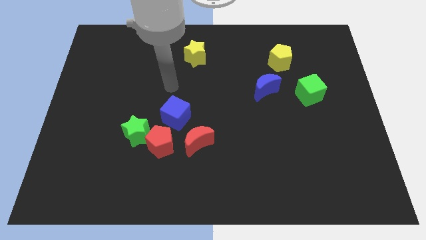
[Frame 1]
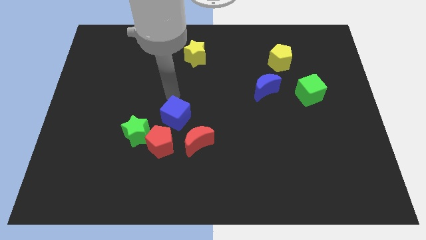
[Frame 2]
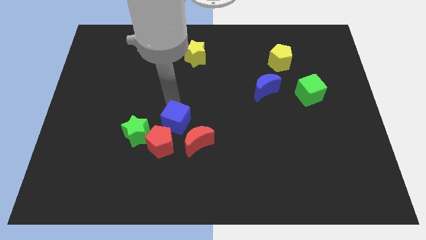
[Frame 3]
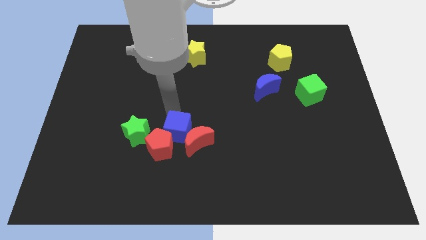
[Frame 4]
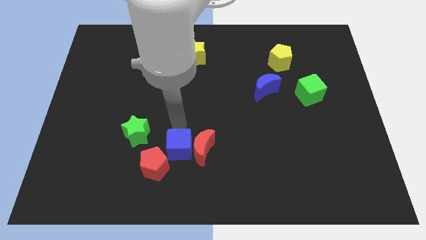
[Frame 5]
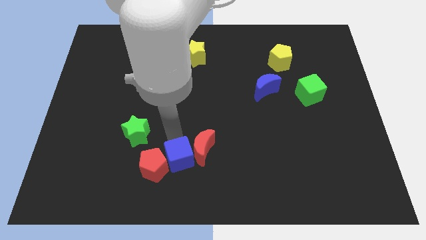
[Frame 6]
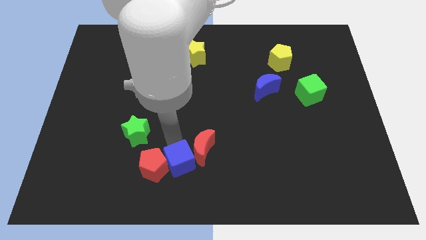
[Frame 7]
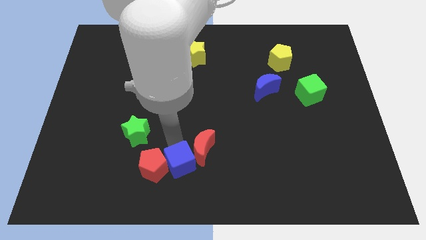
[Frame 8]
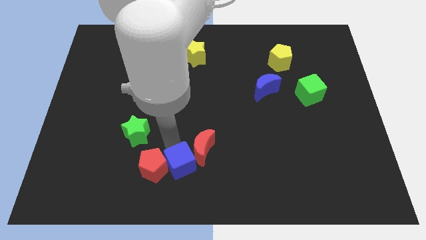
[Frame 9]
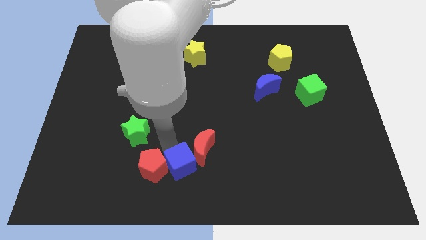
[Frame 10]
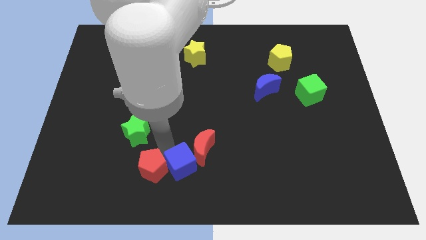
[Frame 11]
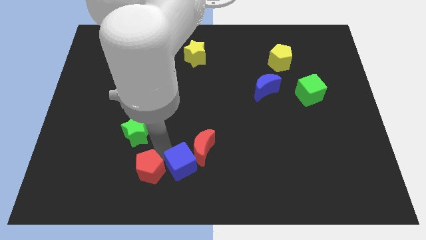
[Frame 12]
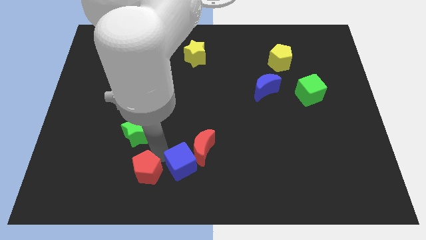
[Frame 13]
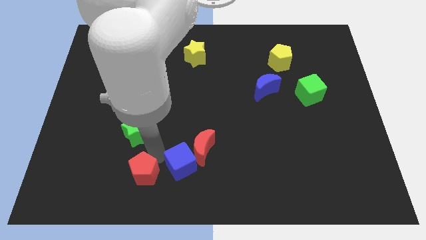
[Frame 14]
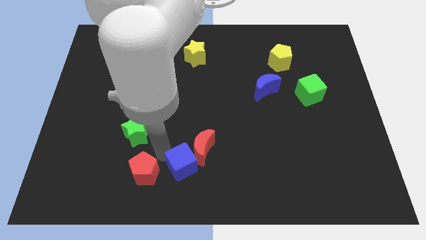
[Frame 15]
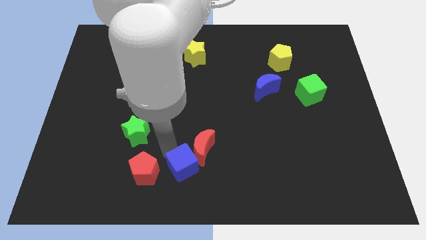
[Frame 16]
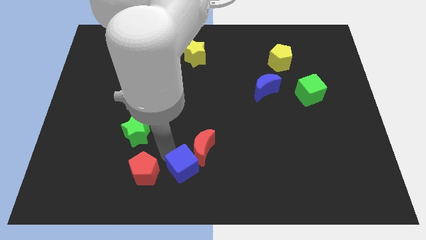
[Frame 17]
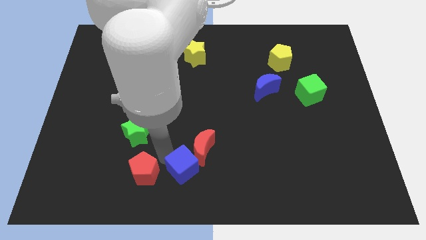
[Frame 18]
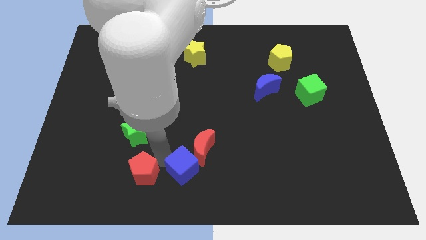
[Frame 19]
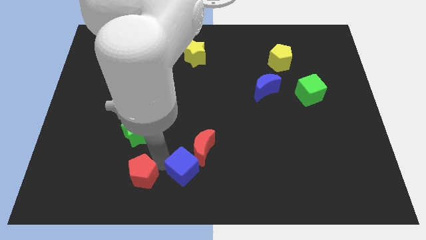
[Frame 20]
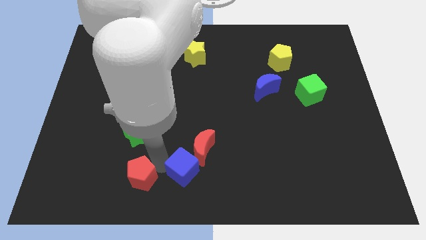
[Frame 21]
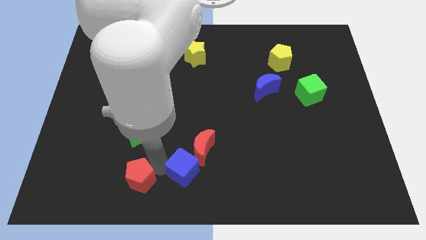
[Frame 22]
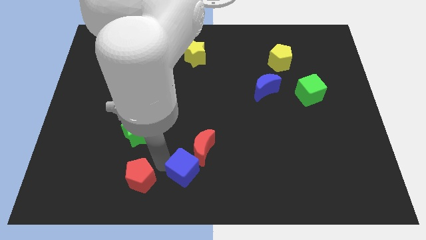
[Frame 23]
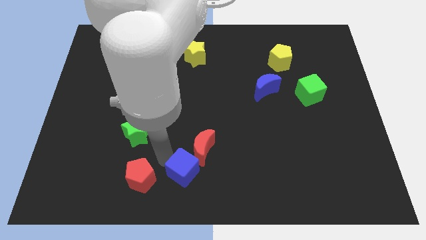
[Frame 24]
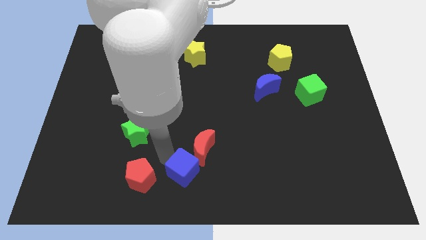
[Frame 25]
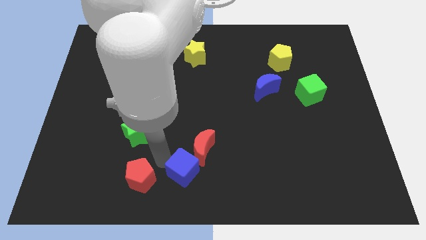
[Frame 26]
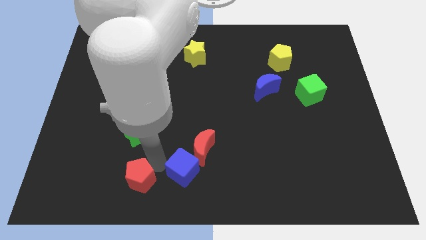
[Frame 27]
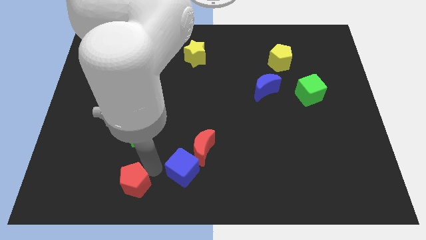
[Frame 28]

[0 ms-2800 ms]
move the red pentagon away from the green star, red moon, and blue cube

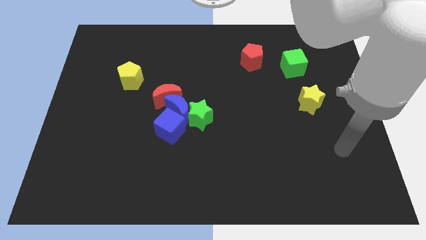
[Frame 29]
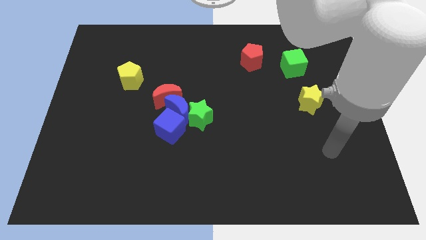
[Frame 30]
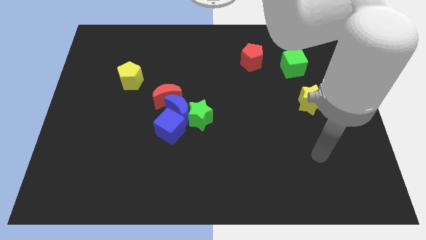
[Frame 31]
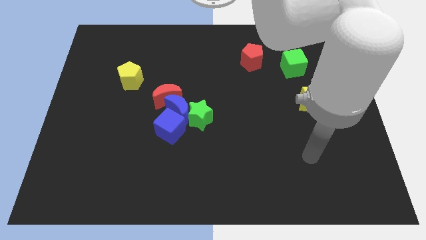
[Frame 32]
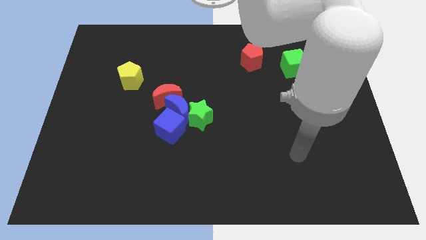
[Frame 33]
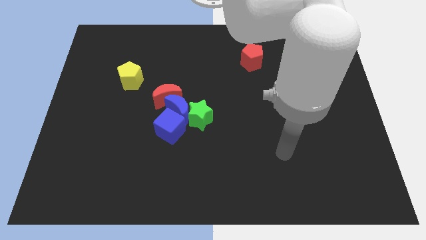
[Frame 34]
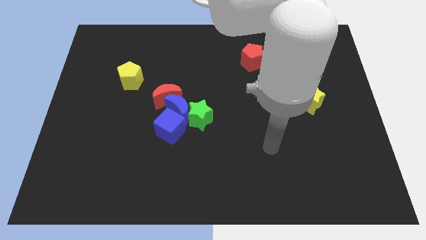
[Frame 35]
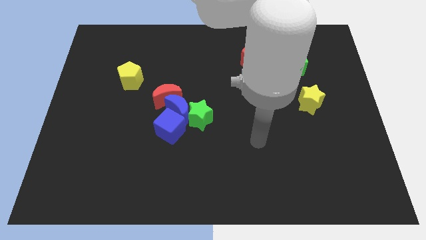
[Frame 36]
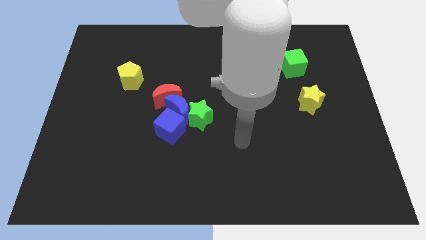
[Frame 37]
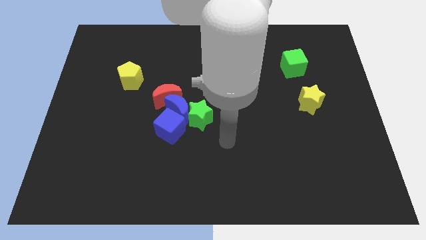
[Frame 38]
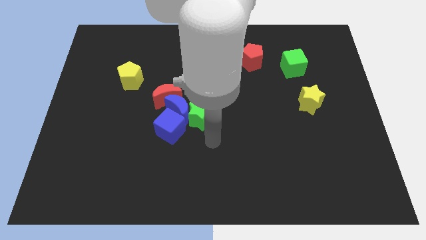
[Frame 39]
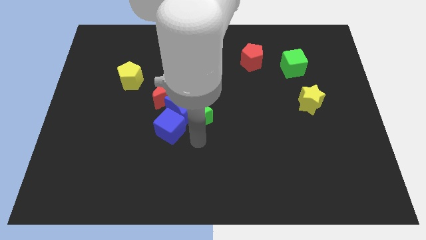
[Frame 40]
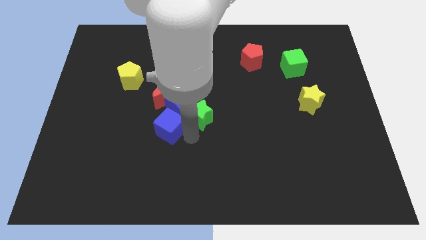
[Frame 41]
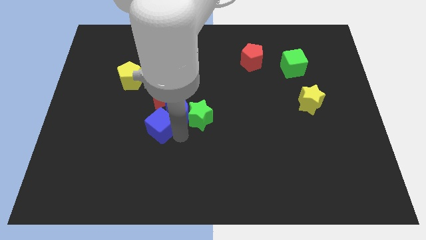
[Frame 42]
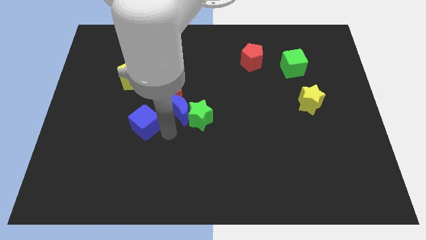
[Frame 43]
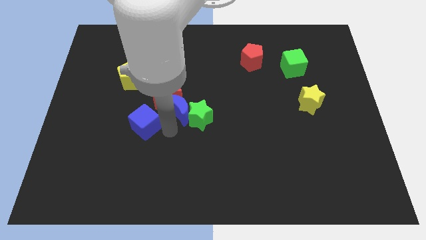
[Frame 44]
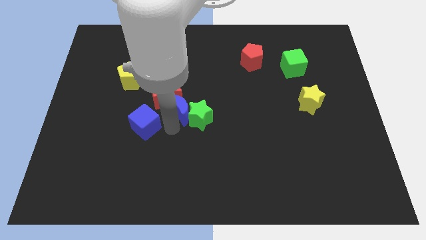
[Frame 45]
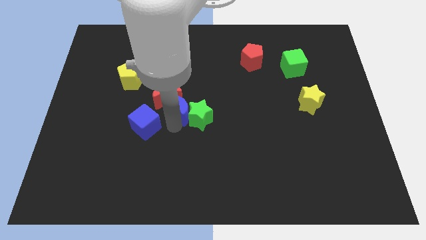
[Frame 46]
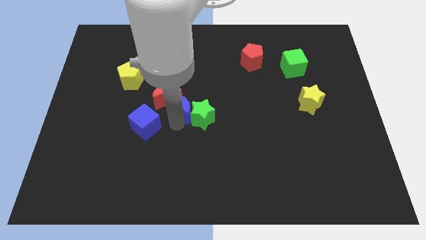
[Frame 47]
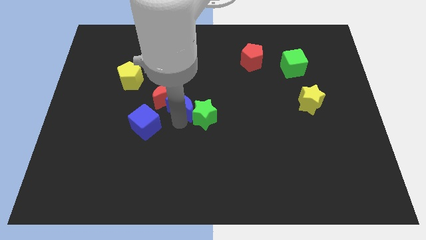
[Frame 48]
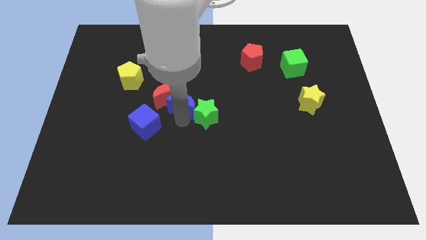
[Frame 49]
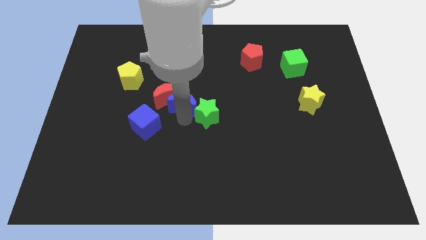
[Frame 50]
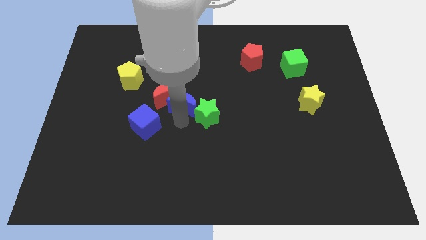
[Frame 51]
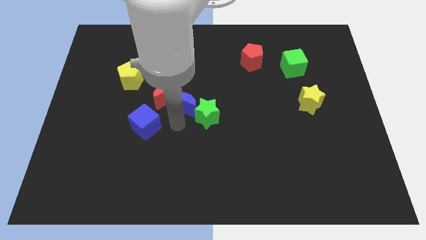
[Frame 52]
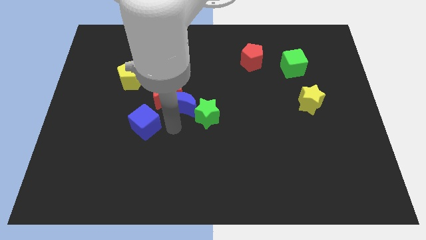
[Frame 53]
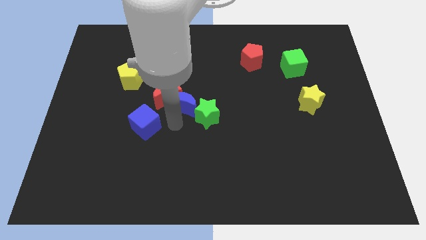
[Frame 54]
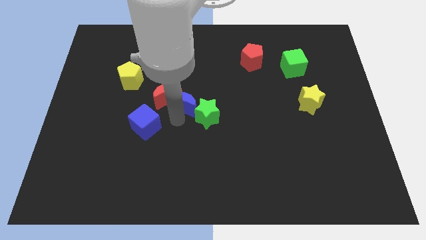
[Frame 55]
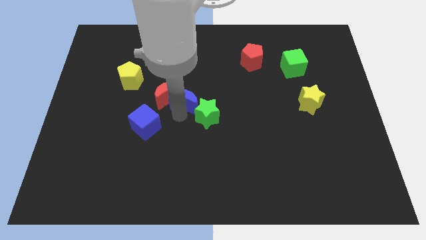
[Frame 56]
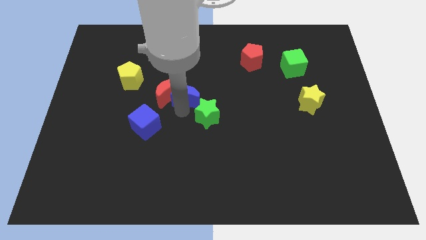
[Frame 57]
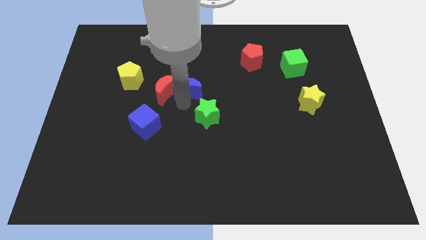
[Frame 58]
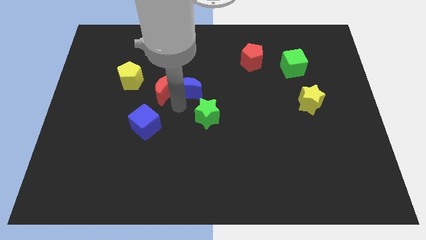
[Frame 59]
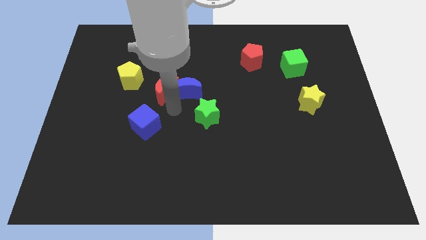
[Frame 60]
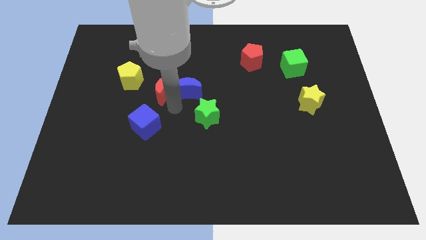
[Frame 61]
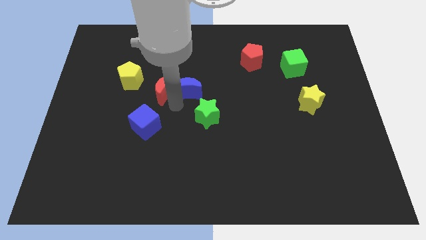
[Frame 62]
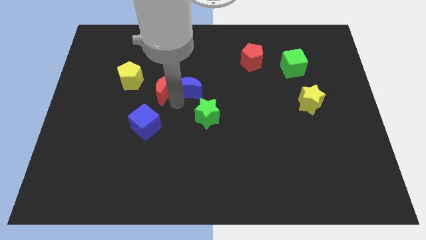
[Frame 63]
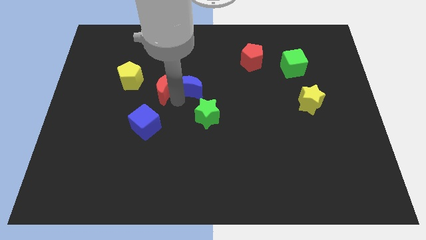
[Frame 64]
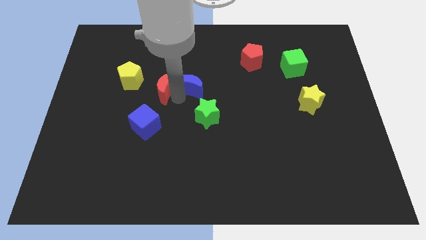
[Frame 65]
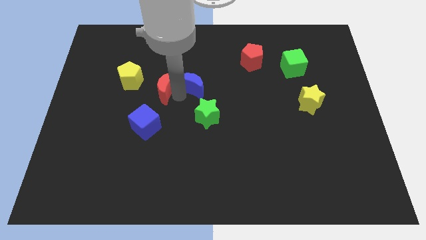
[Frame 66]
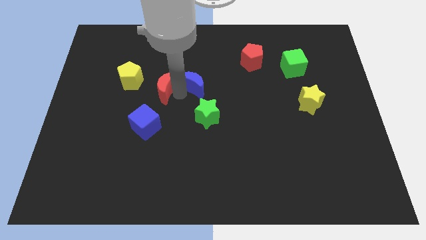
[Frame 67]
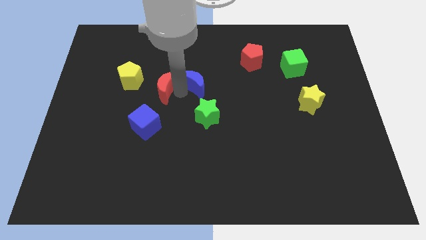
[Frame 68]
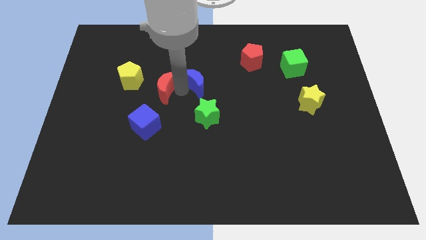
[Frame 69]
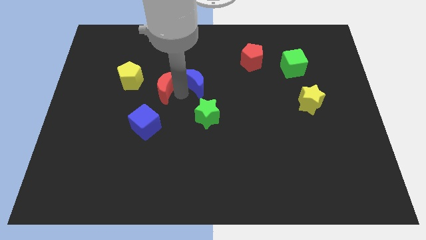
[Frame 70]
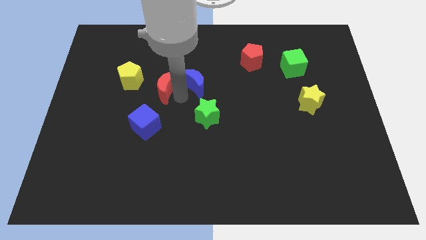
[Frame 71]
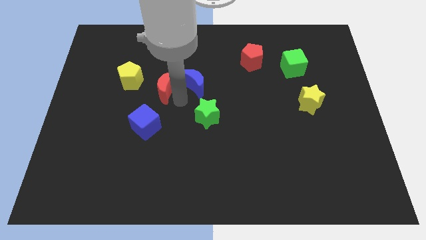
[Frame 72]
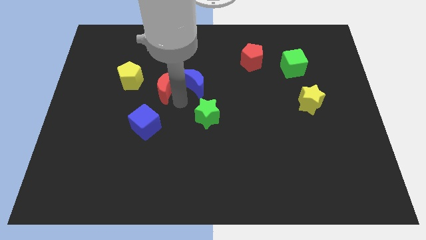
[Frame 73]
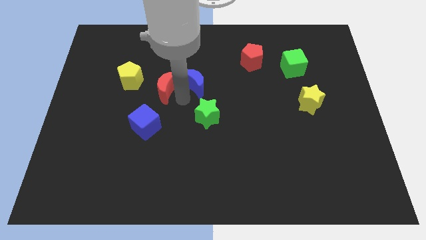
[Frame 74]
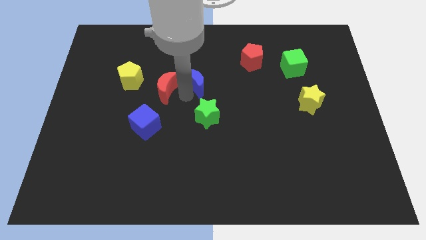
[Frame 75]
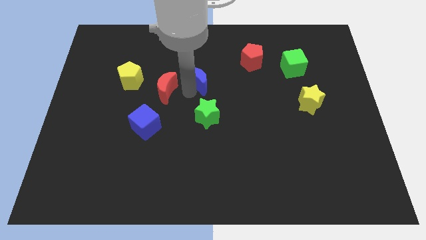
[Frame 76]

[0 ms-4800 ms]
separate the blue moon from the clump

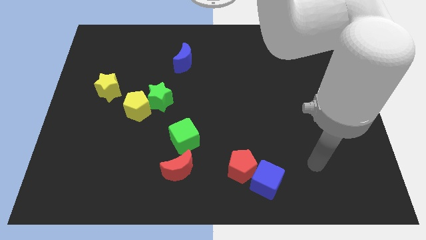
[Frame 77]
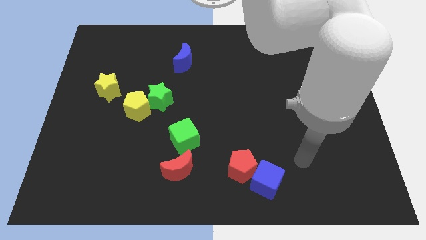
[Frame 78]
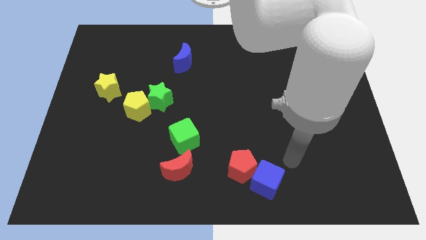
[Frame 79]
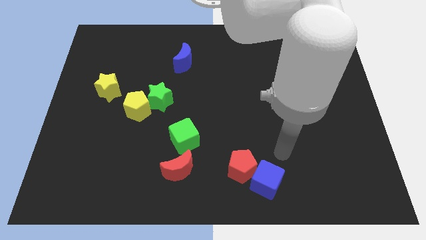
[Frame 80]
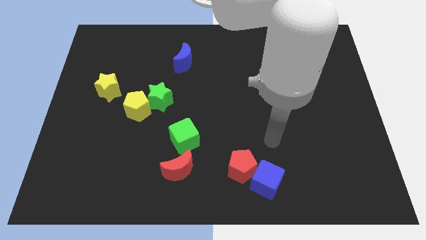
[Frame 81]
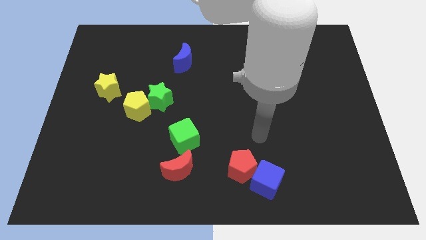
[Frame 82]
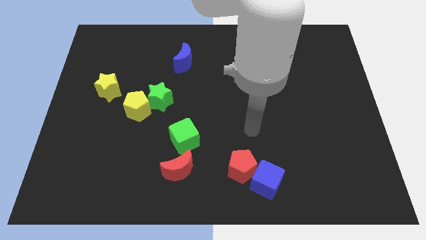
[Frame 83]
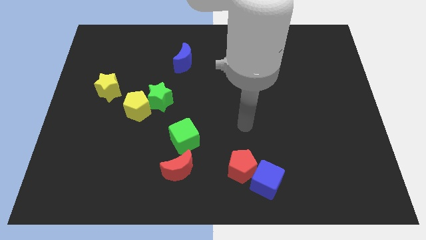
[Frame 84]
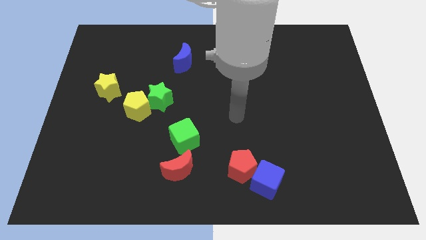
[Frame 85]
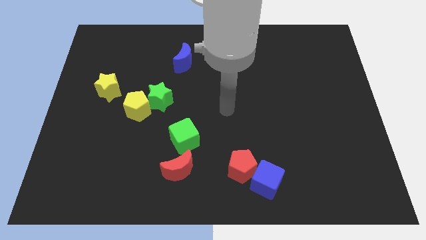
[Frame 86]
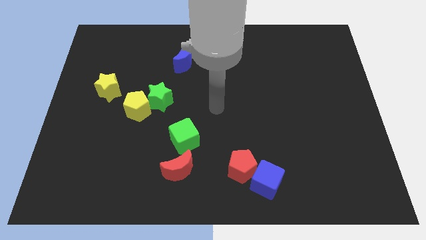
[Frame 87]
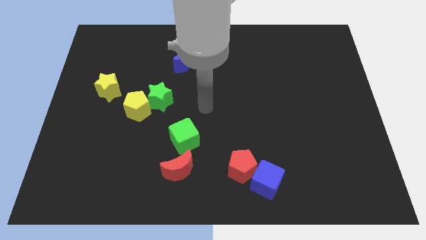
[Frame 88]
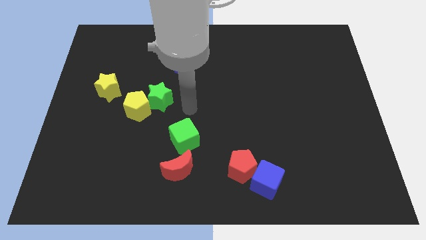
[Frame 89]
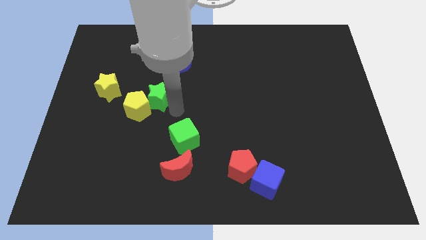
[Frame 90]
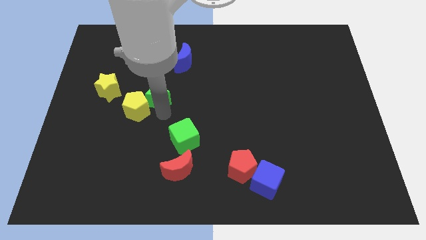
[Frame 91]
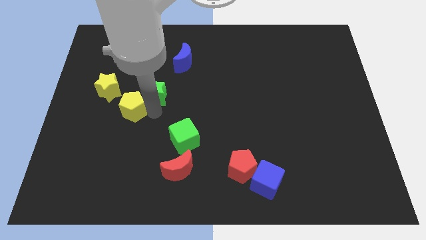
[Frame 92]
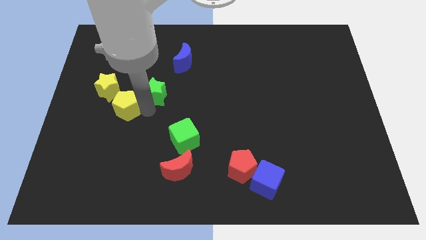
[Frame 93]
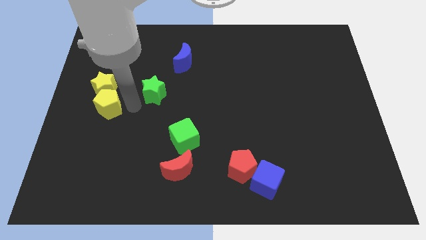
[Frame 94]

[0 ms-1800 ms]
move the green star away from the yellow pentagon
